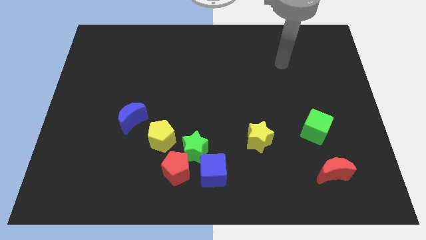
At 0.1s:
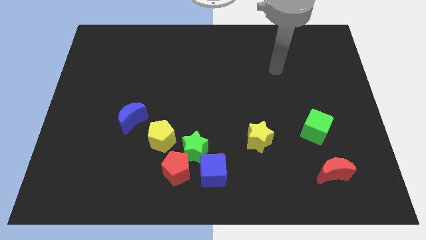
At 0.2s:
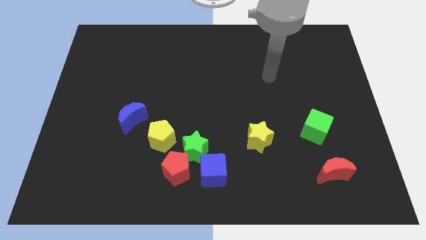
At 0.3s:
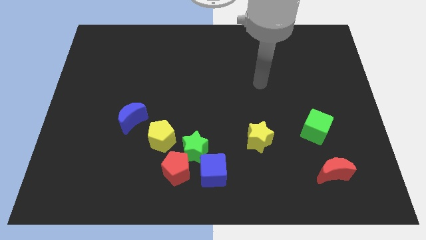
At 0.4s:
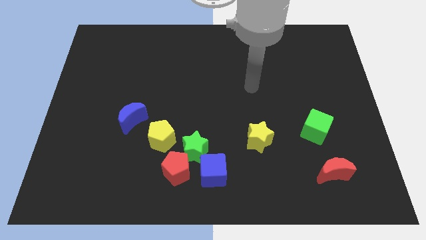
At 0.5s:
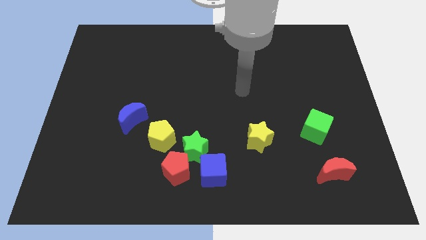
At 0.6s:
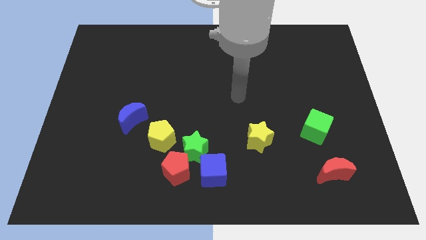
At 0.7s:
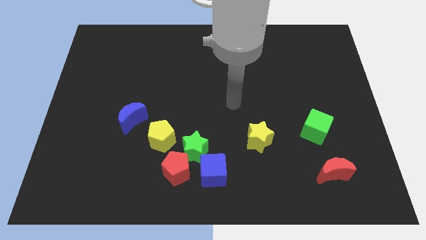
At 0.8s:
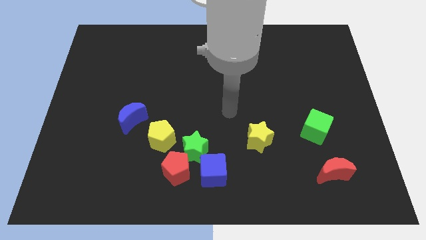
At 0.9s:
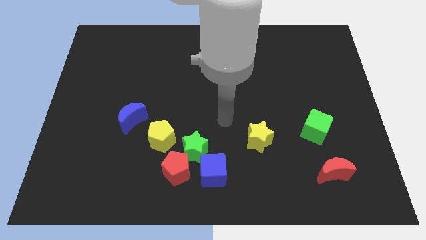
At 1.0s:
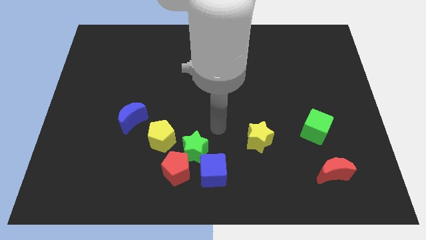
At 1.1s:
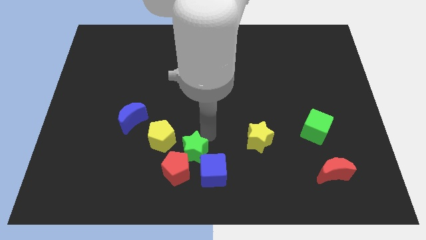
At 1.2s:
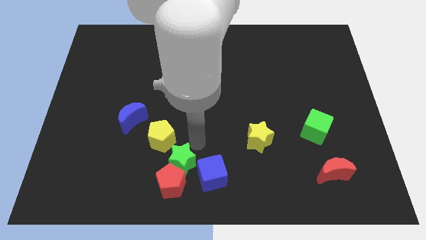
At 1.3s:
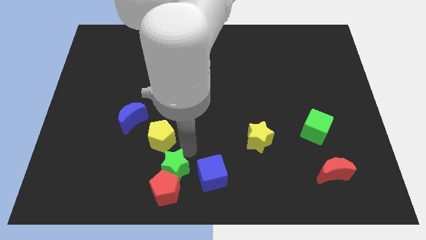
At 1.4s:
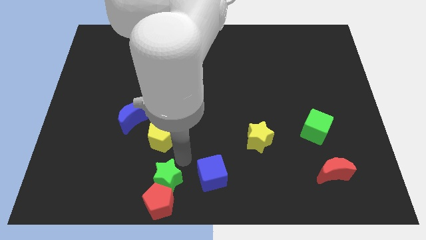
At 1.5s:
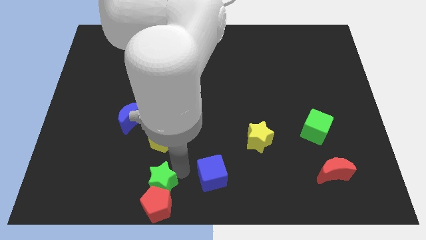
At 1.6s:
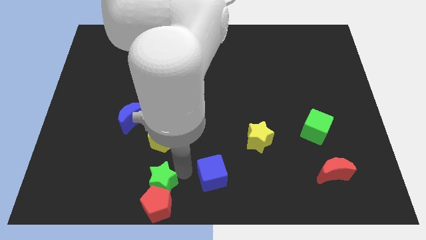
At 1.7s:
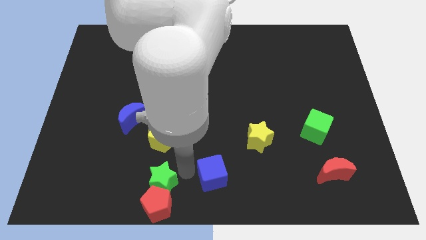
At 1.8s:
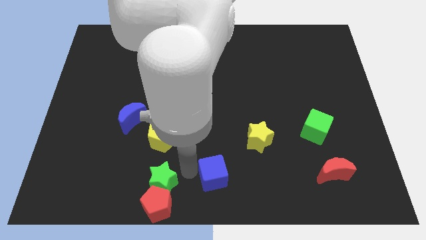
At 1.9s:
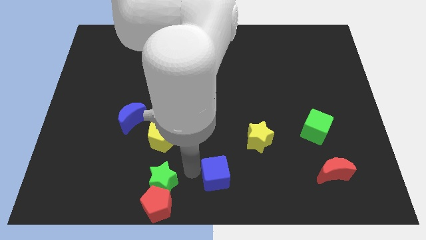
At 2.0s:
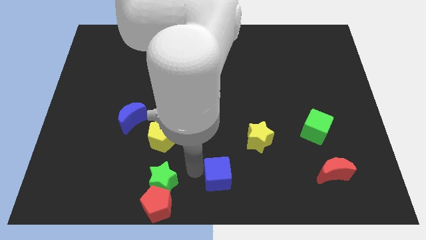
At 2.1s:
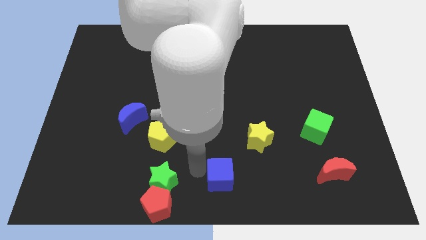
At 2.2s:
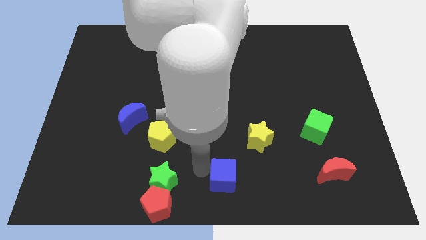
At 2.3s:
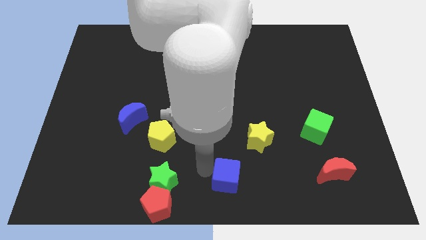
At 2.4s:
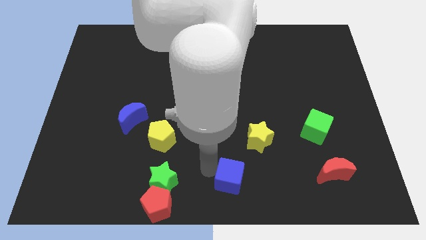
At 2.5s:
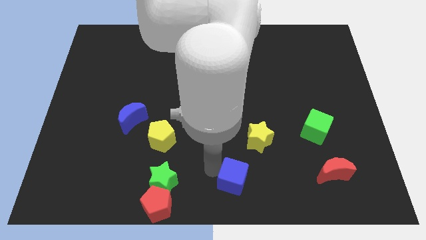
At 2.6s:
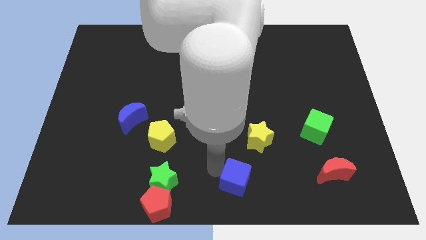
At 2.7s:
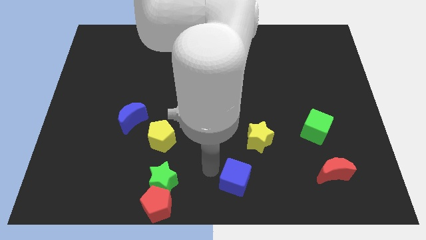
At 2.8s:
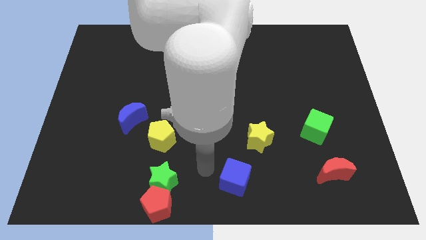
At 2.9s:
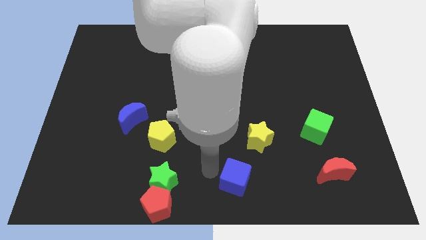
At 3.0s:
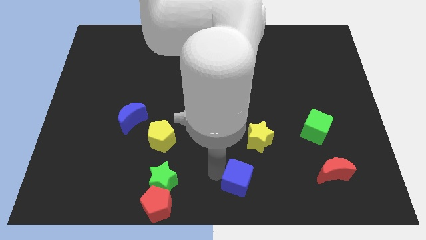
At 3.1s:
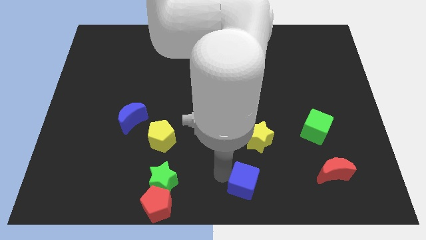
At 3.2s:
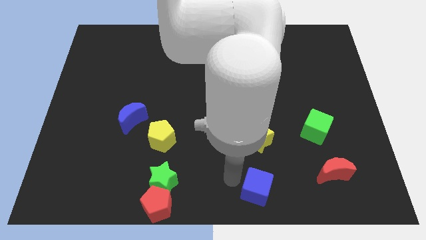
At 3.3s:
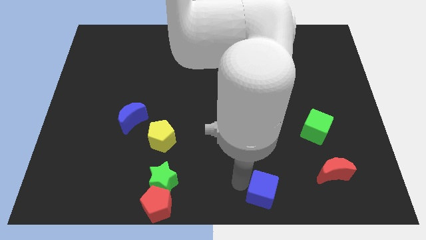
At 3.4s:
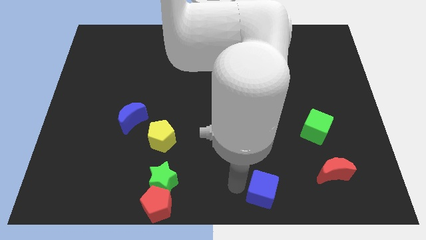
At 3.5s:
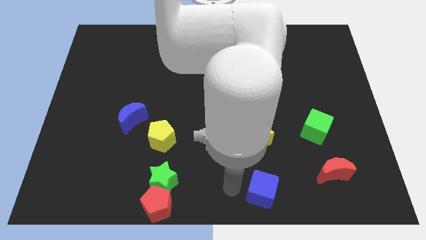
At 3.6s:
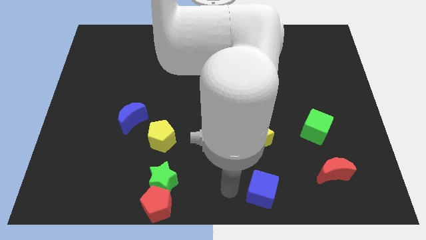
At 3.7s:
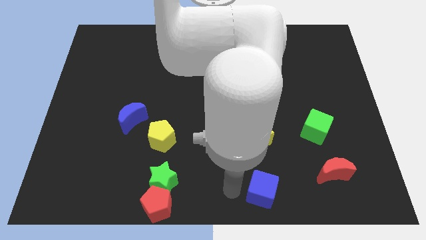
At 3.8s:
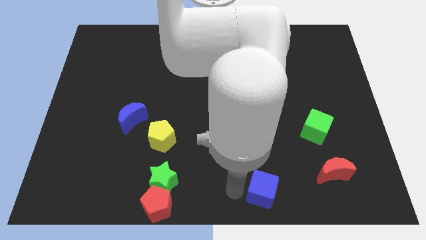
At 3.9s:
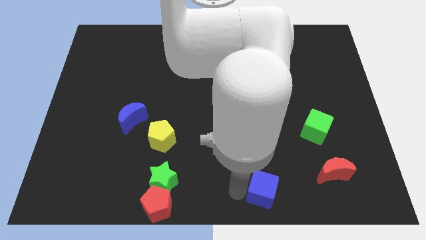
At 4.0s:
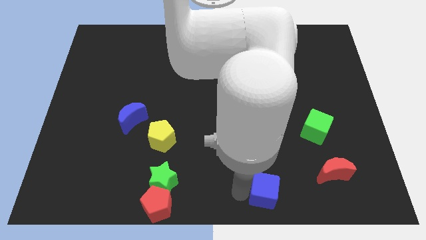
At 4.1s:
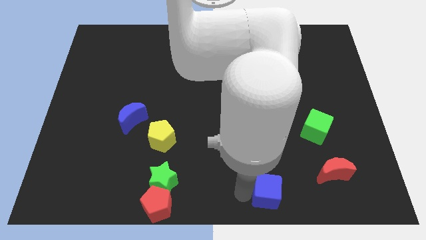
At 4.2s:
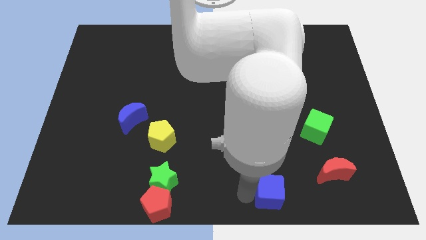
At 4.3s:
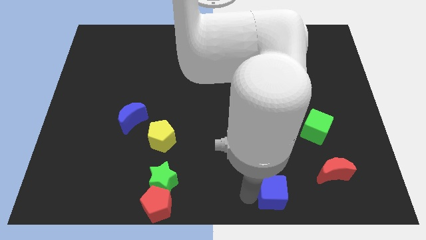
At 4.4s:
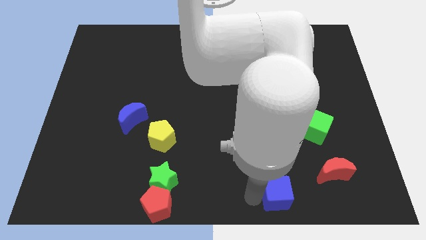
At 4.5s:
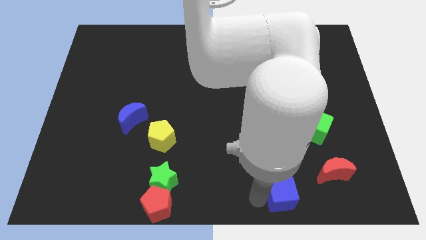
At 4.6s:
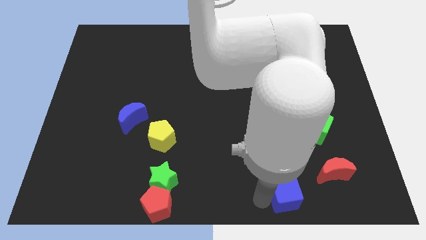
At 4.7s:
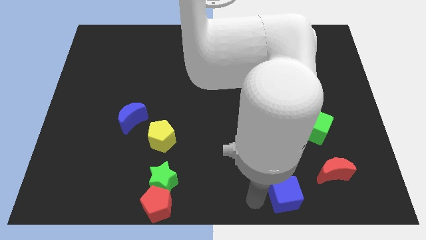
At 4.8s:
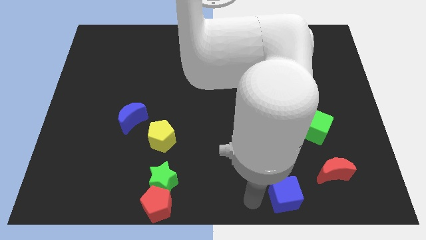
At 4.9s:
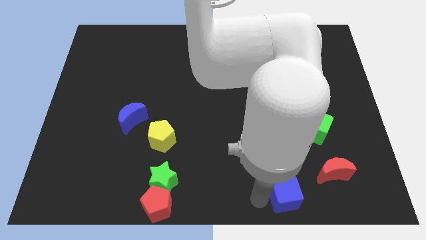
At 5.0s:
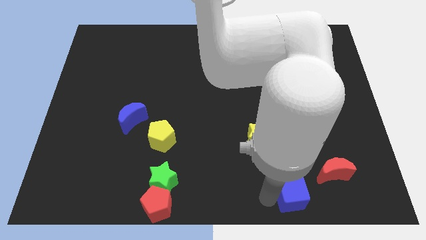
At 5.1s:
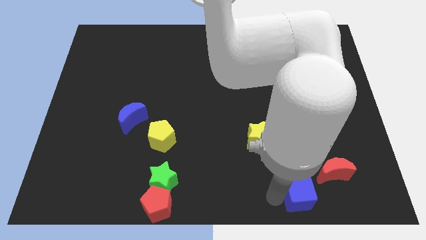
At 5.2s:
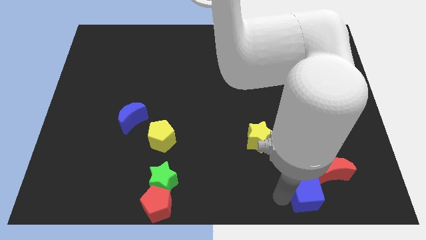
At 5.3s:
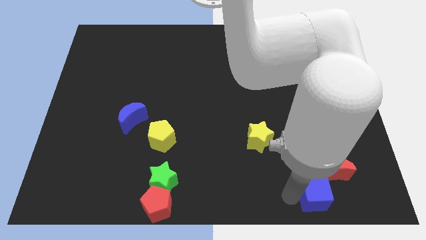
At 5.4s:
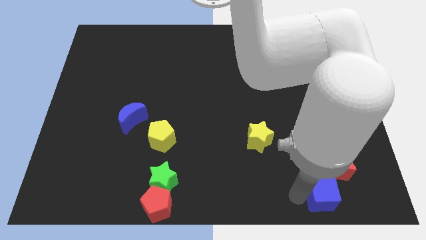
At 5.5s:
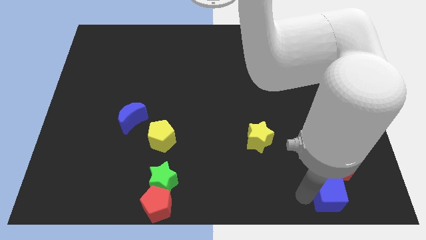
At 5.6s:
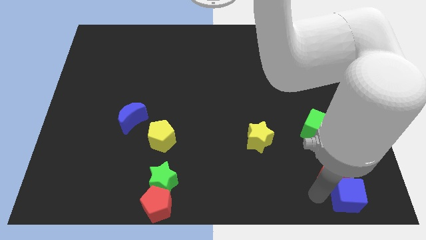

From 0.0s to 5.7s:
slide the blue cube to the bottom right of the board

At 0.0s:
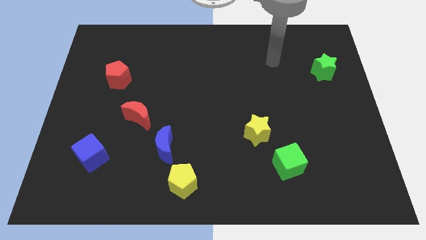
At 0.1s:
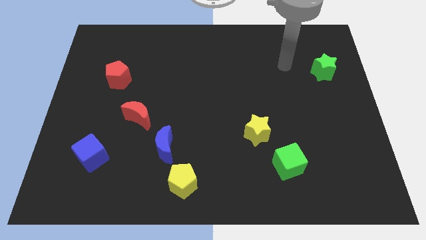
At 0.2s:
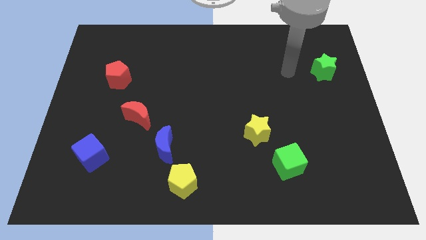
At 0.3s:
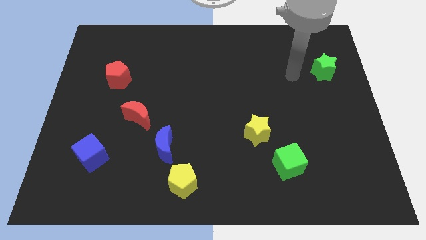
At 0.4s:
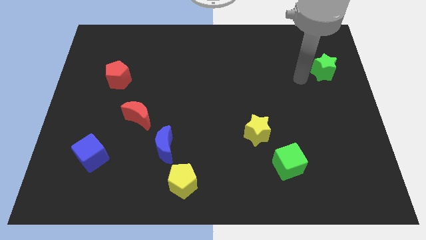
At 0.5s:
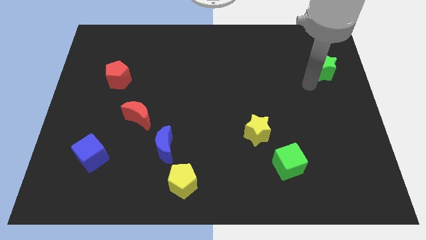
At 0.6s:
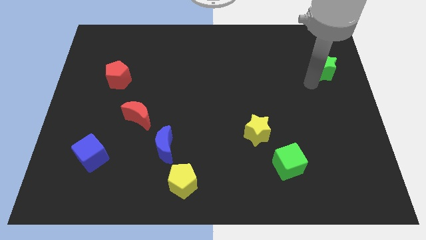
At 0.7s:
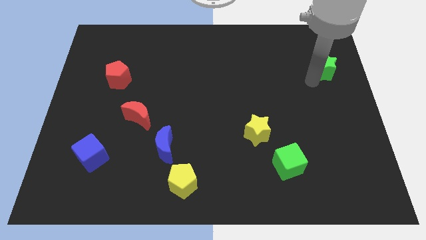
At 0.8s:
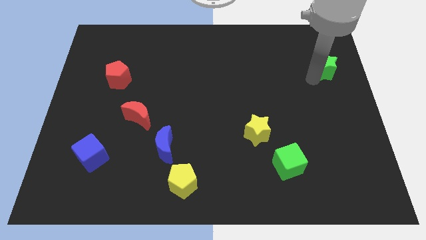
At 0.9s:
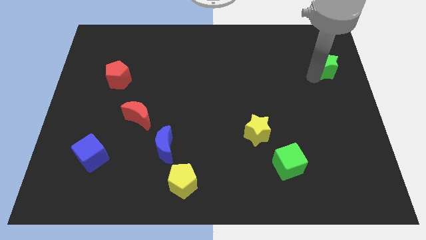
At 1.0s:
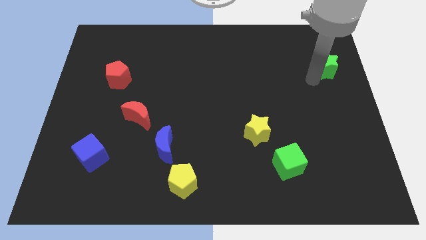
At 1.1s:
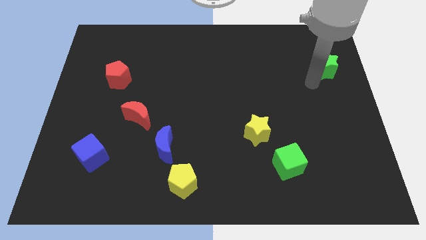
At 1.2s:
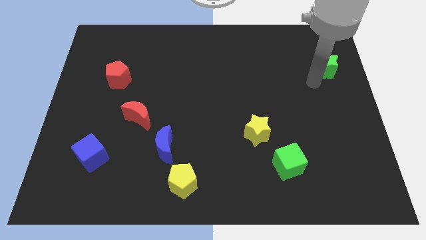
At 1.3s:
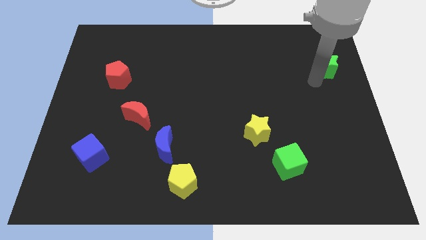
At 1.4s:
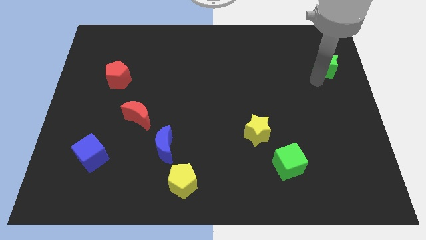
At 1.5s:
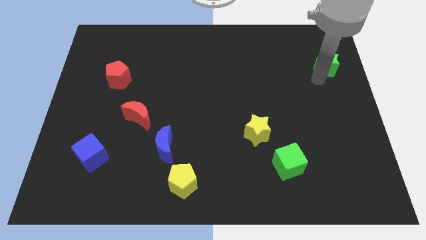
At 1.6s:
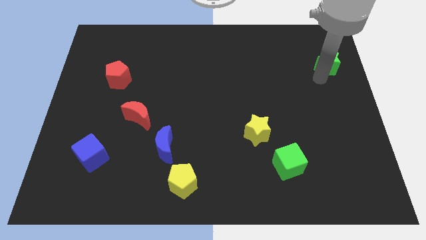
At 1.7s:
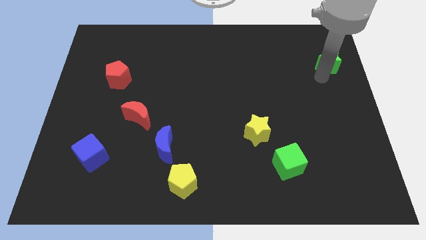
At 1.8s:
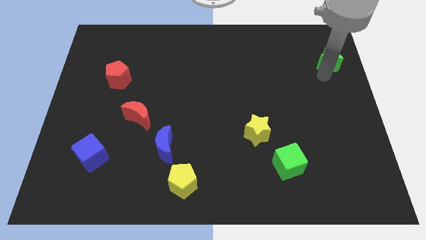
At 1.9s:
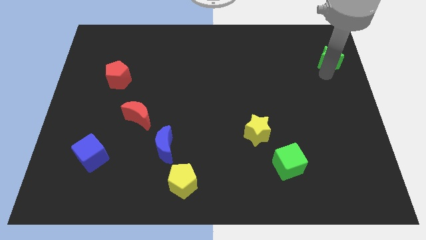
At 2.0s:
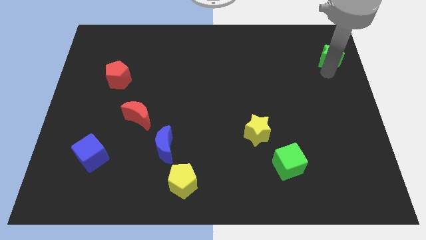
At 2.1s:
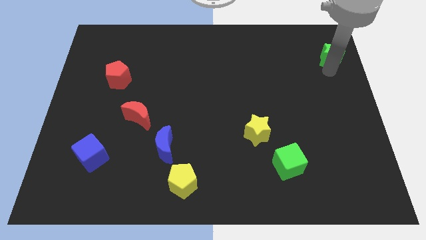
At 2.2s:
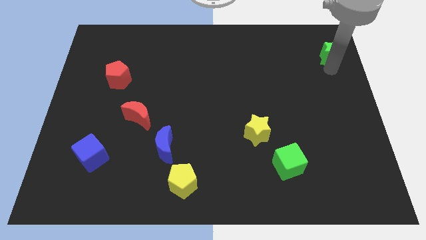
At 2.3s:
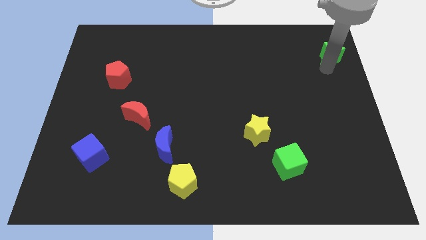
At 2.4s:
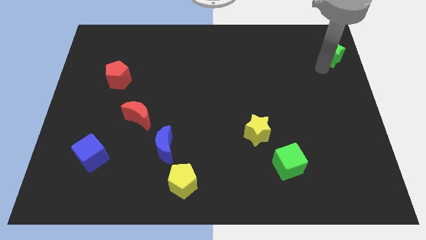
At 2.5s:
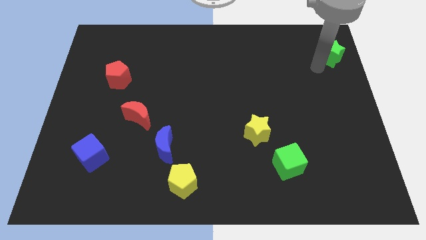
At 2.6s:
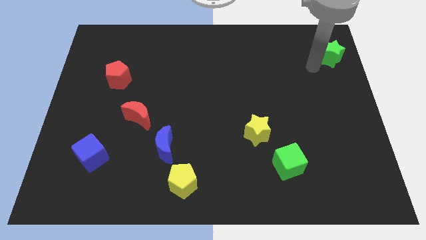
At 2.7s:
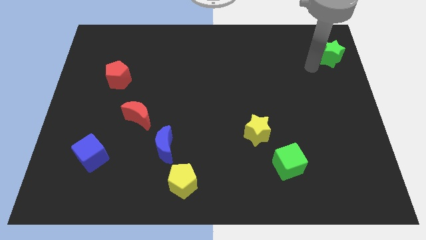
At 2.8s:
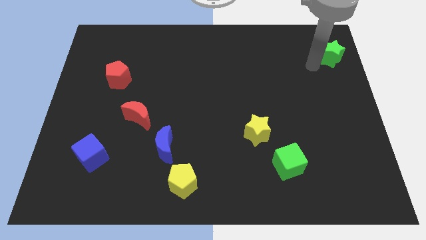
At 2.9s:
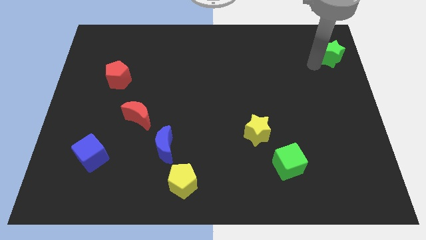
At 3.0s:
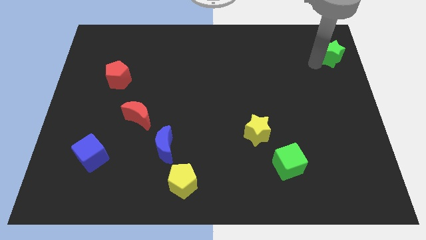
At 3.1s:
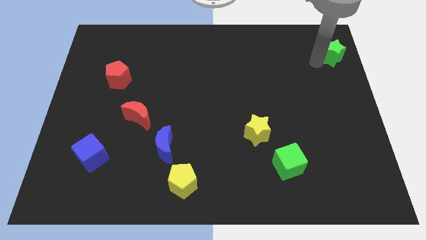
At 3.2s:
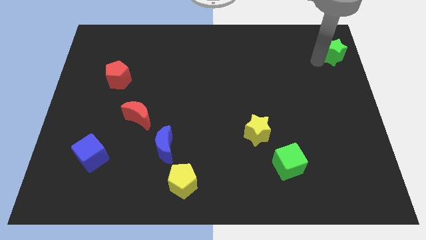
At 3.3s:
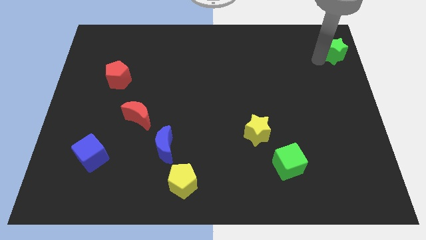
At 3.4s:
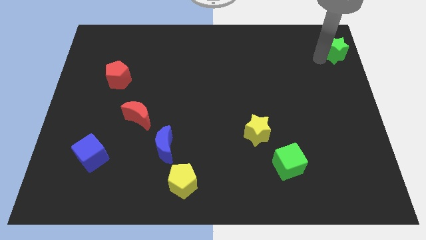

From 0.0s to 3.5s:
push the green star to the top right
